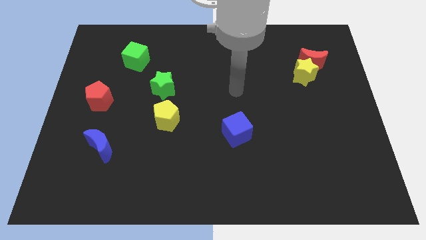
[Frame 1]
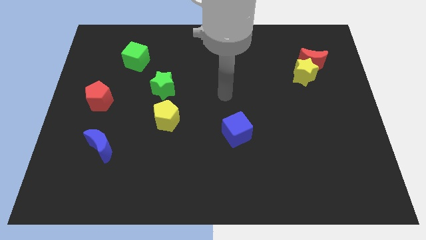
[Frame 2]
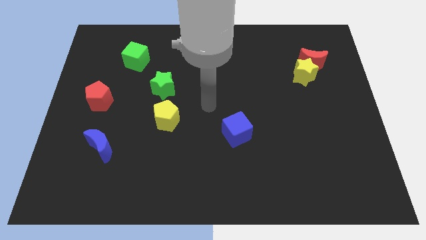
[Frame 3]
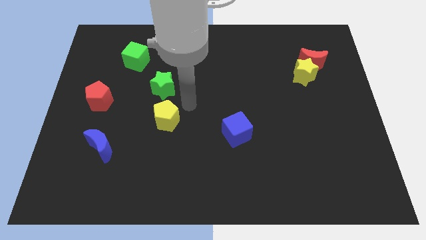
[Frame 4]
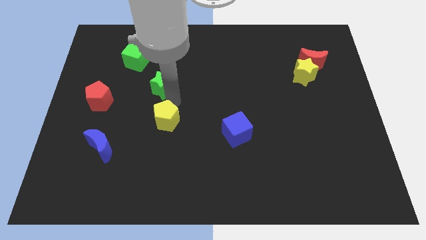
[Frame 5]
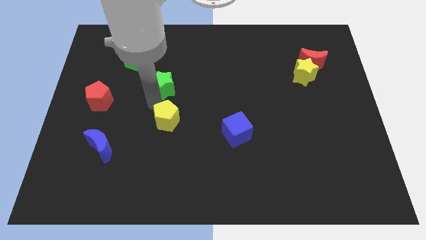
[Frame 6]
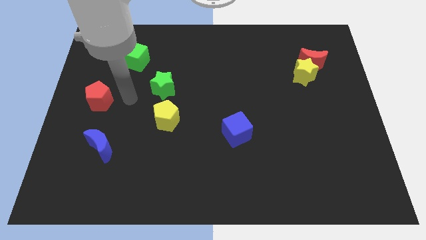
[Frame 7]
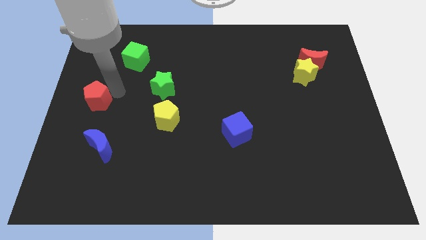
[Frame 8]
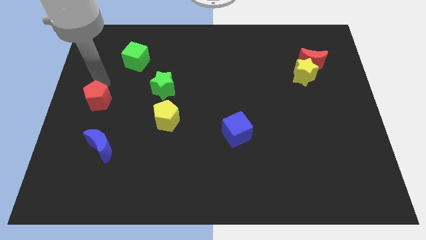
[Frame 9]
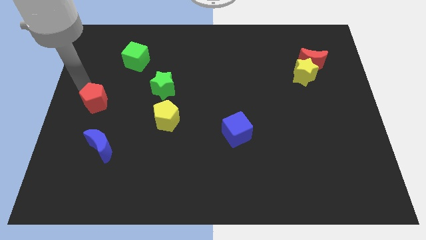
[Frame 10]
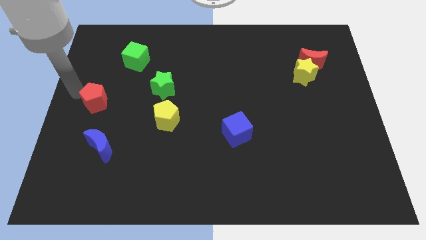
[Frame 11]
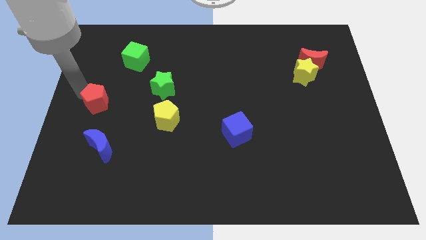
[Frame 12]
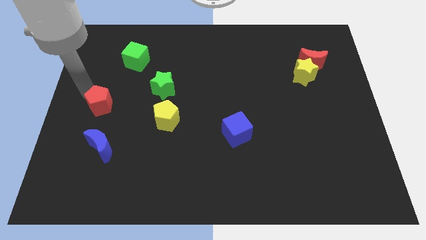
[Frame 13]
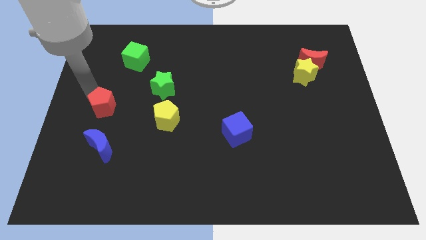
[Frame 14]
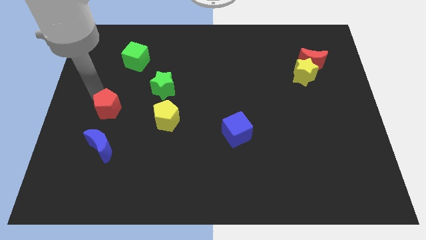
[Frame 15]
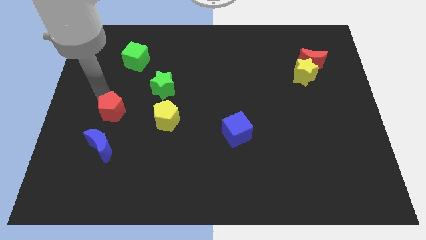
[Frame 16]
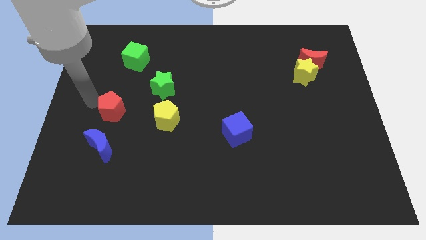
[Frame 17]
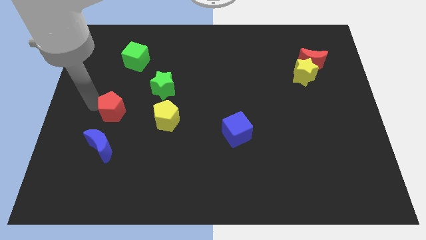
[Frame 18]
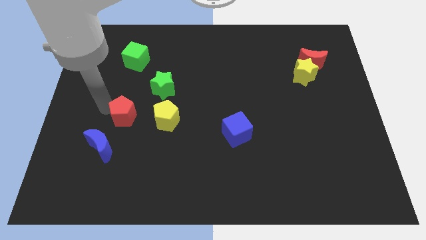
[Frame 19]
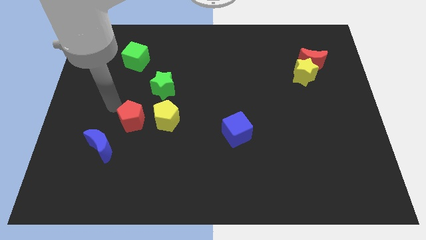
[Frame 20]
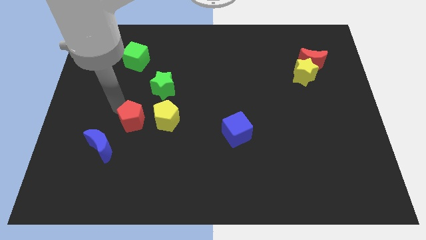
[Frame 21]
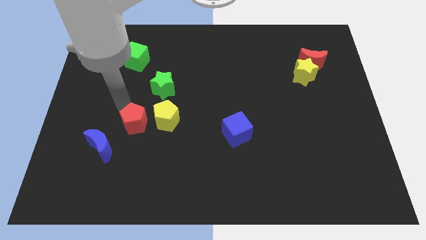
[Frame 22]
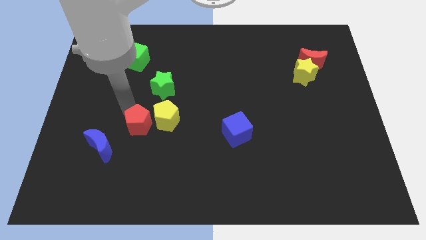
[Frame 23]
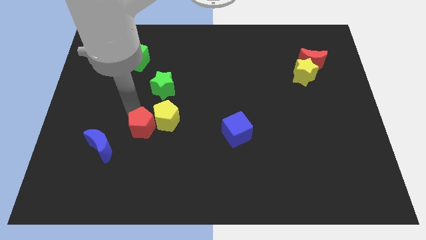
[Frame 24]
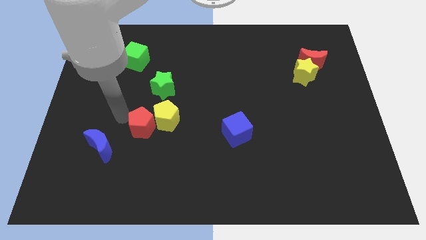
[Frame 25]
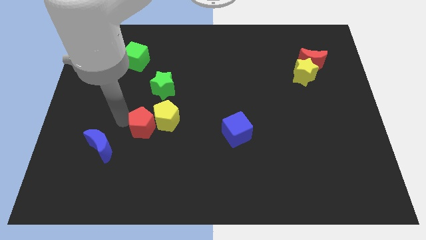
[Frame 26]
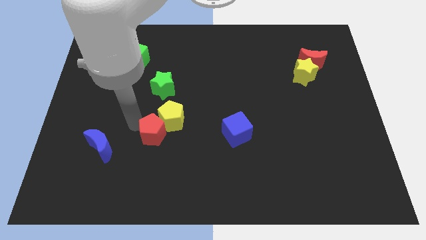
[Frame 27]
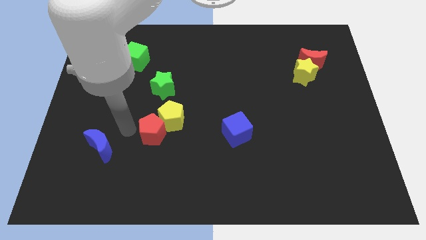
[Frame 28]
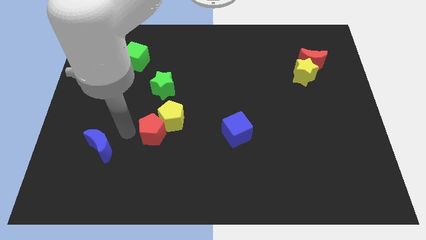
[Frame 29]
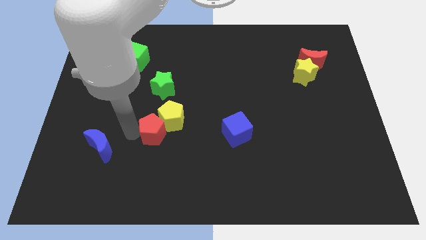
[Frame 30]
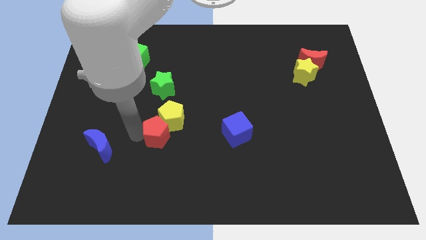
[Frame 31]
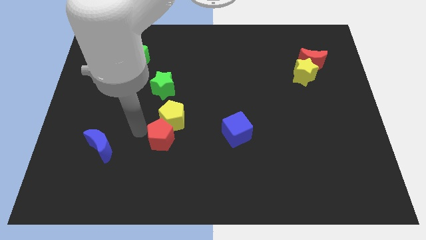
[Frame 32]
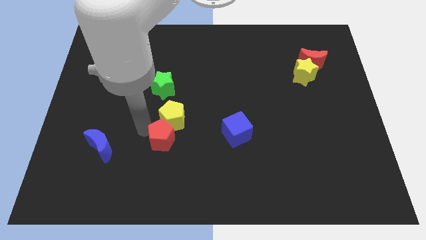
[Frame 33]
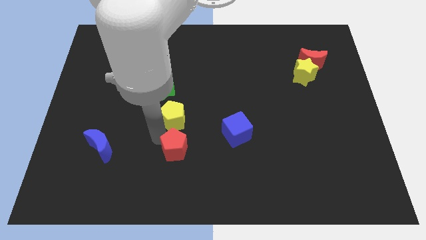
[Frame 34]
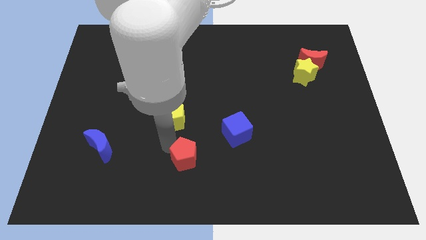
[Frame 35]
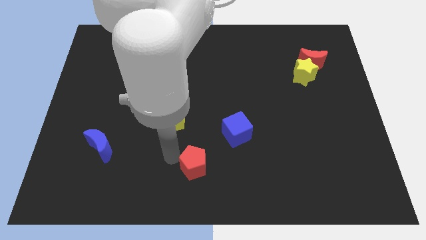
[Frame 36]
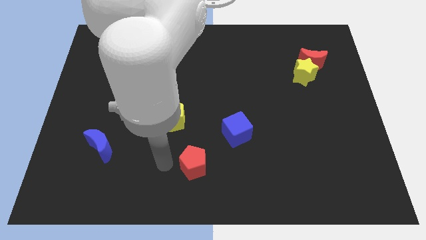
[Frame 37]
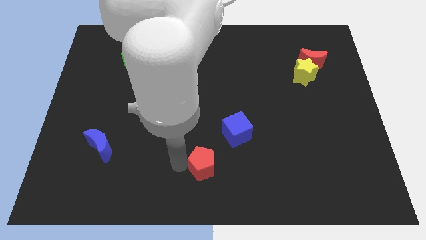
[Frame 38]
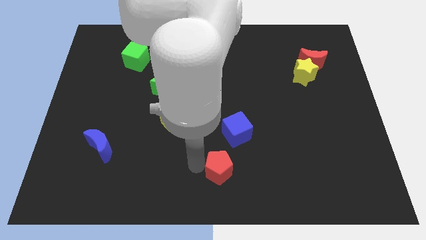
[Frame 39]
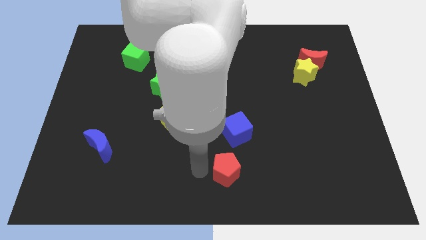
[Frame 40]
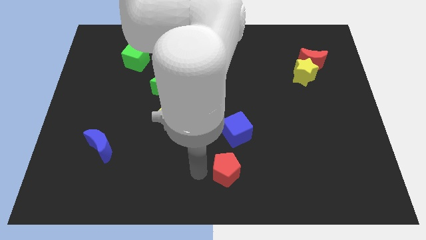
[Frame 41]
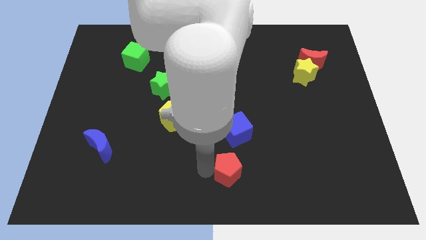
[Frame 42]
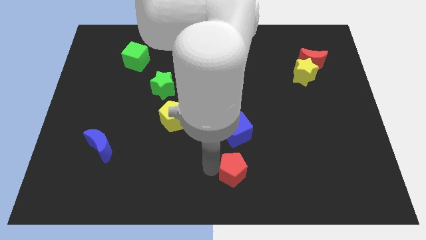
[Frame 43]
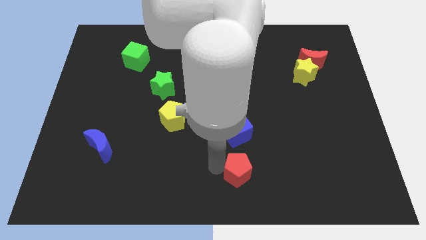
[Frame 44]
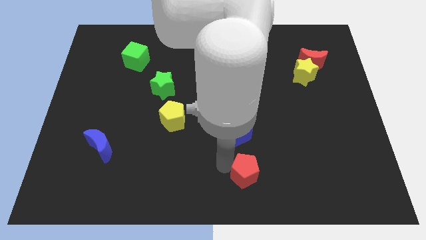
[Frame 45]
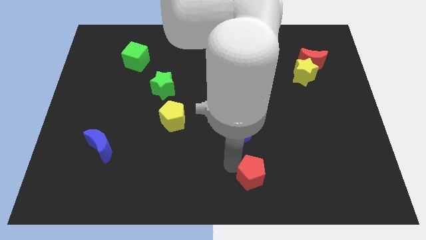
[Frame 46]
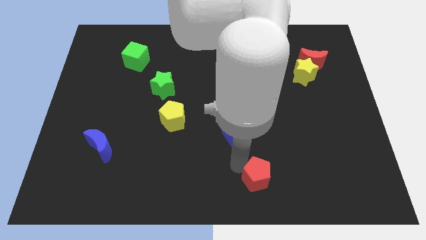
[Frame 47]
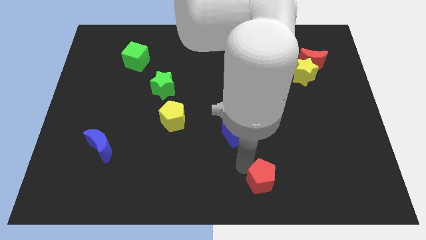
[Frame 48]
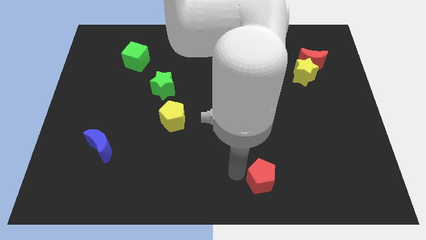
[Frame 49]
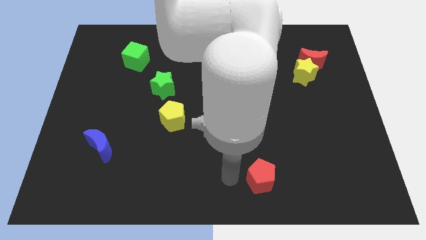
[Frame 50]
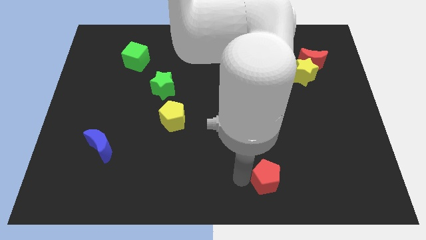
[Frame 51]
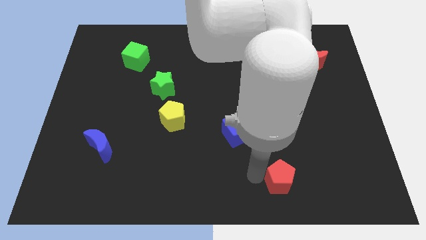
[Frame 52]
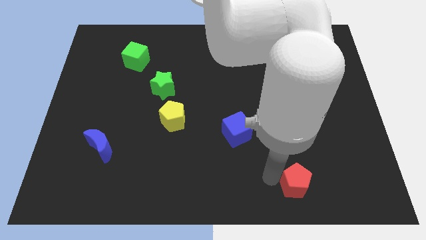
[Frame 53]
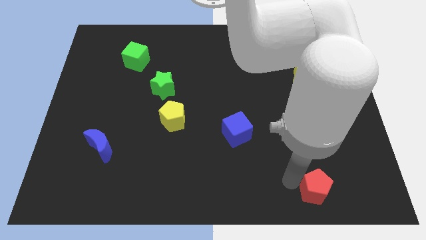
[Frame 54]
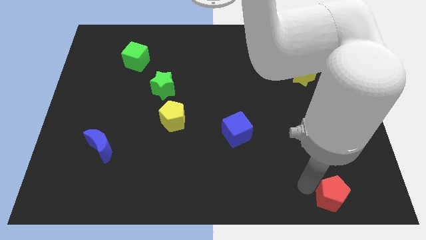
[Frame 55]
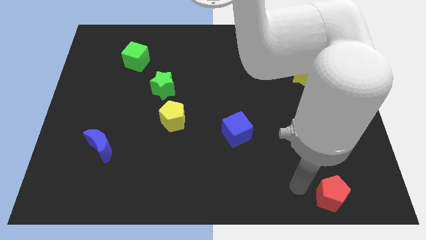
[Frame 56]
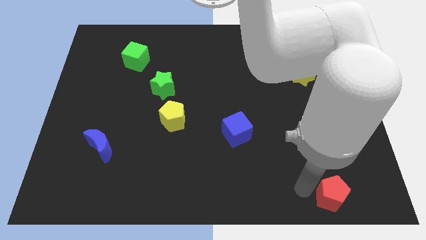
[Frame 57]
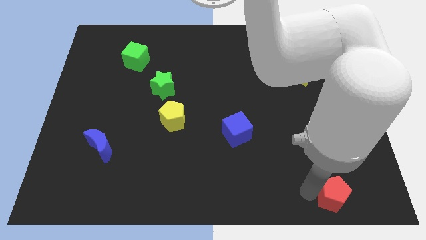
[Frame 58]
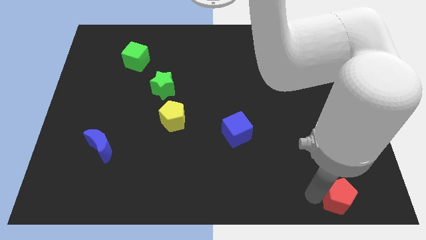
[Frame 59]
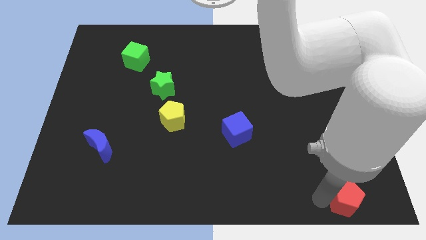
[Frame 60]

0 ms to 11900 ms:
put the red pentagon to the bottom right of the board
